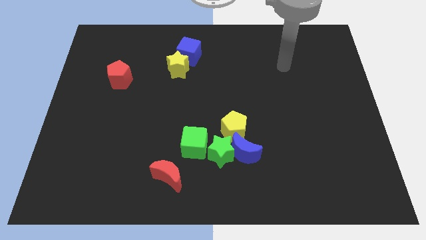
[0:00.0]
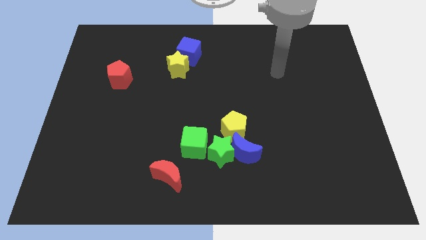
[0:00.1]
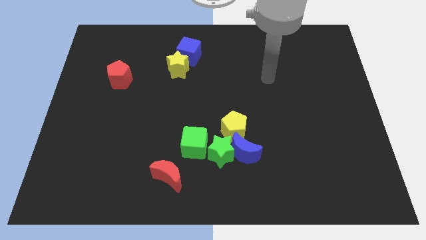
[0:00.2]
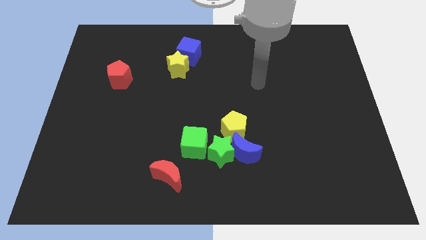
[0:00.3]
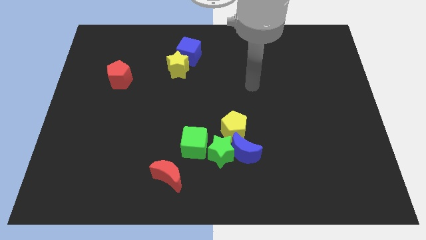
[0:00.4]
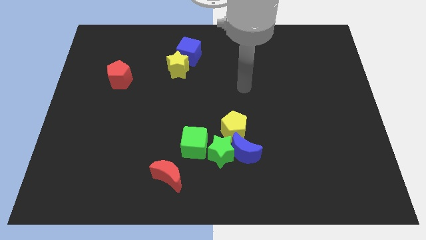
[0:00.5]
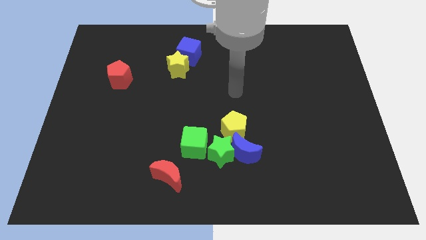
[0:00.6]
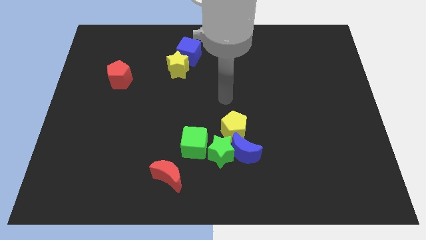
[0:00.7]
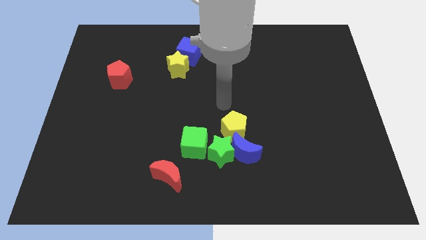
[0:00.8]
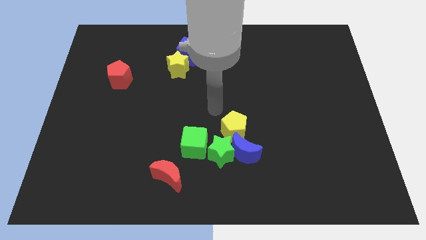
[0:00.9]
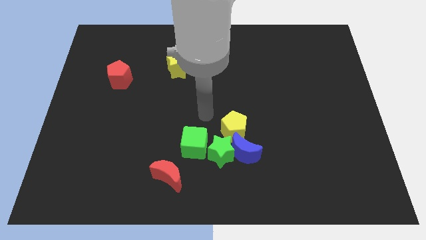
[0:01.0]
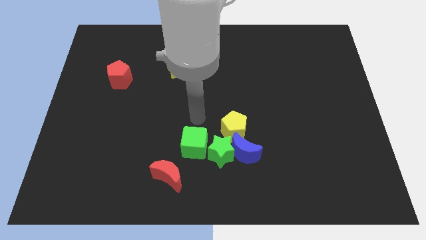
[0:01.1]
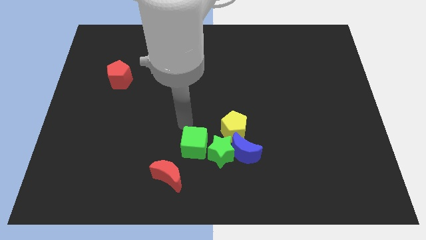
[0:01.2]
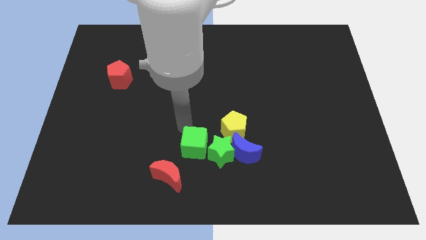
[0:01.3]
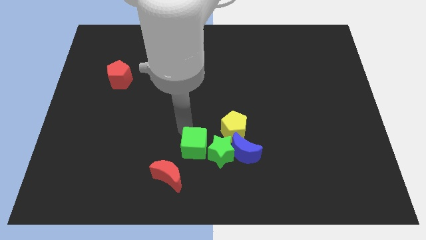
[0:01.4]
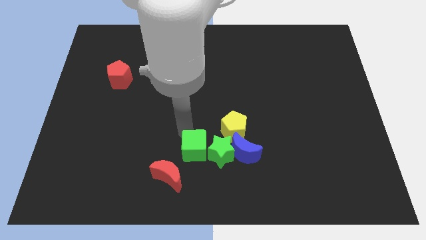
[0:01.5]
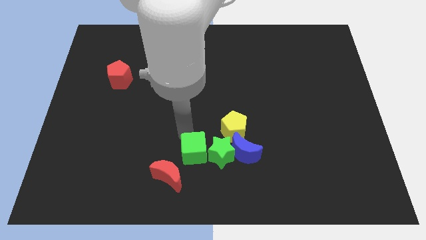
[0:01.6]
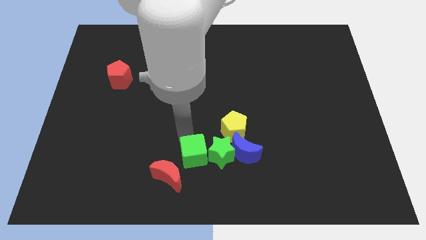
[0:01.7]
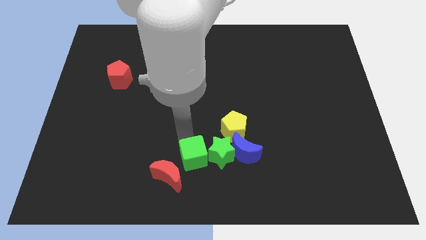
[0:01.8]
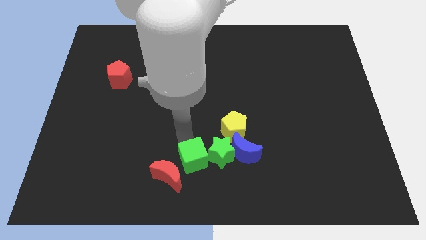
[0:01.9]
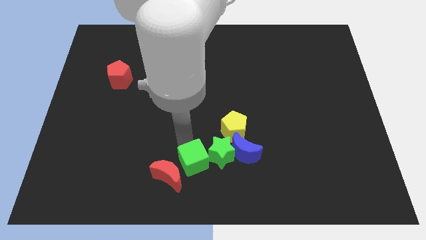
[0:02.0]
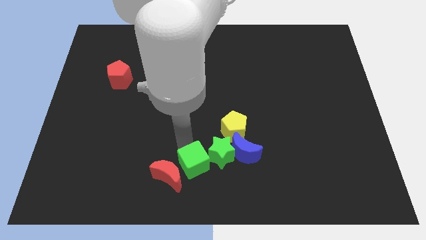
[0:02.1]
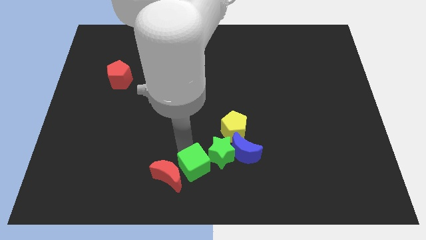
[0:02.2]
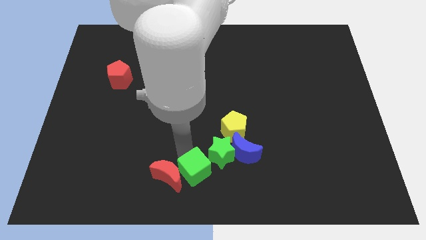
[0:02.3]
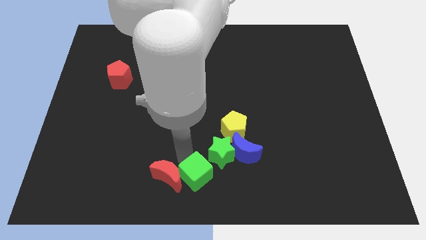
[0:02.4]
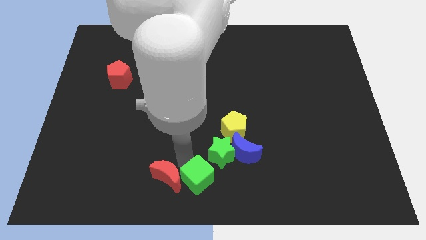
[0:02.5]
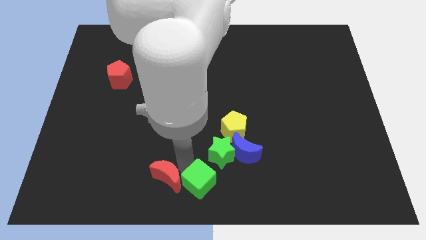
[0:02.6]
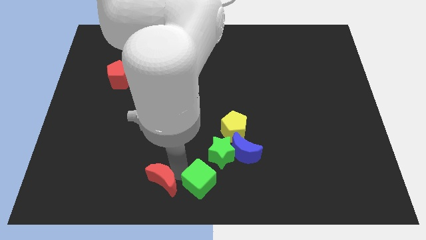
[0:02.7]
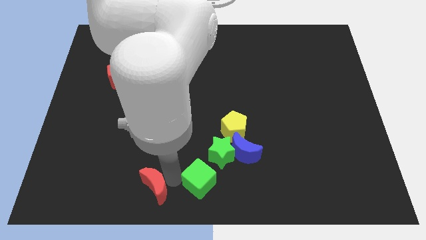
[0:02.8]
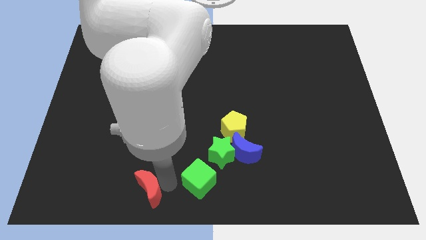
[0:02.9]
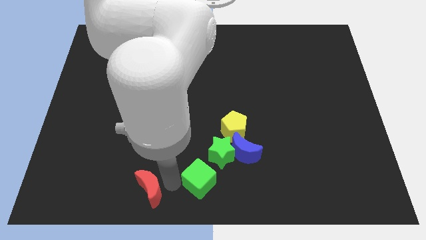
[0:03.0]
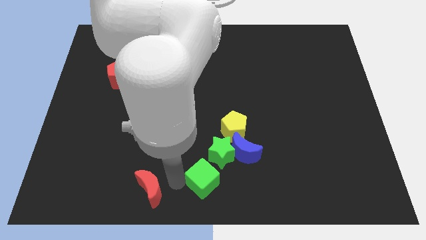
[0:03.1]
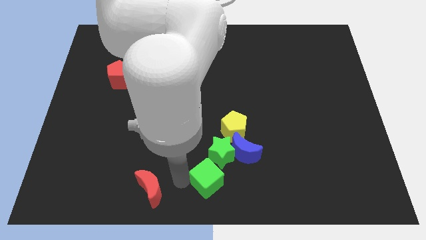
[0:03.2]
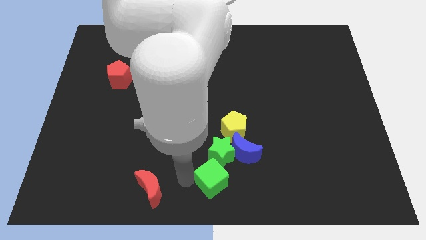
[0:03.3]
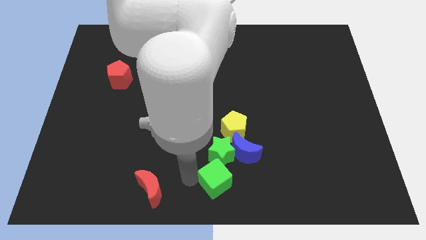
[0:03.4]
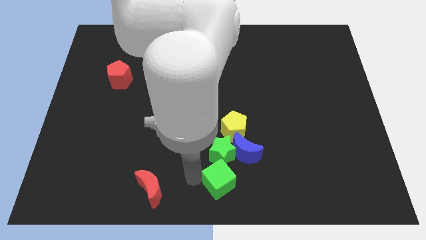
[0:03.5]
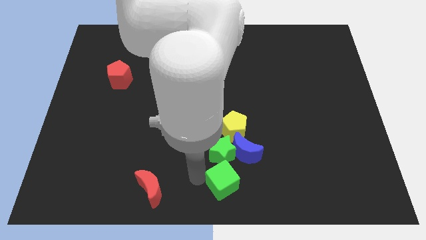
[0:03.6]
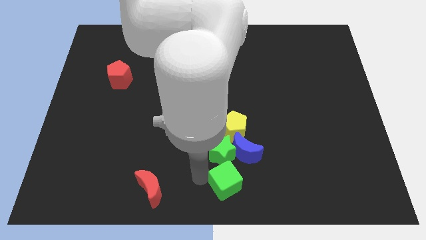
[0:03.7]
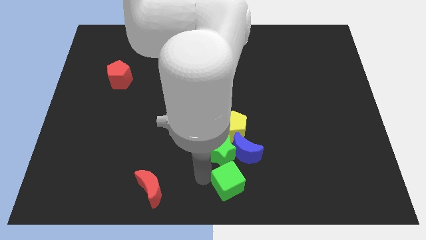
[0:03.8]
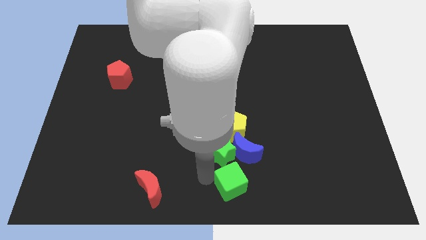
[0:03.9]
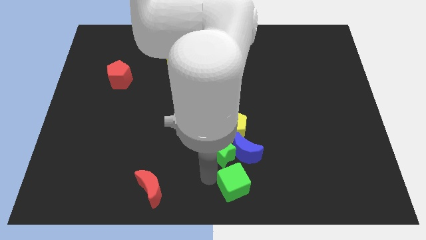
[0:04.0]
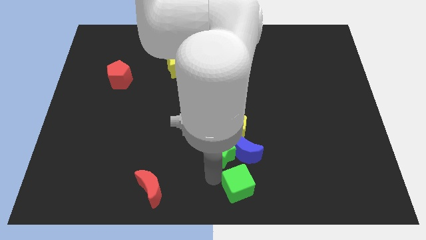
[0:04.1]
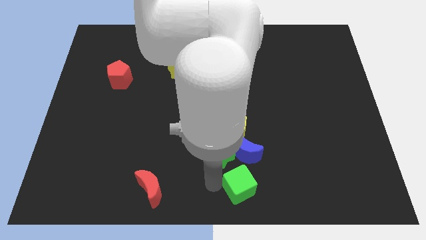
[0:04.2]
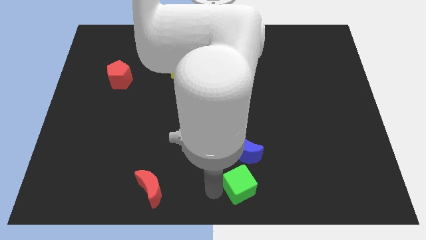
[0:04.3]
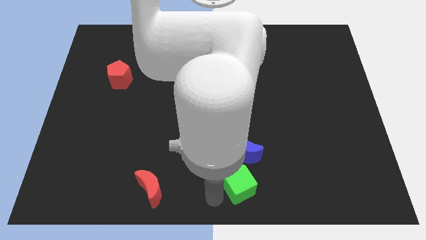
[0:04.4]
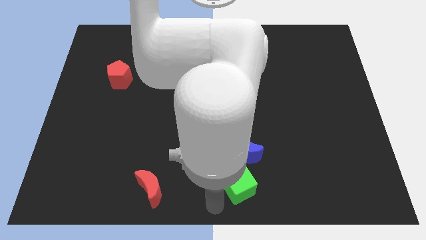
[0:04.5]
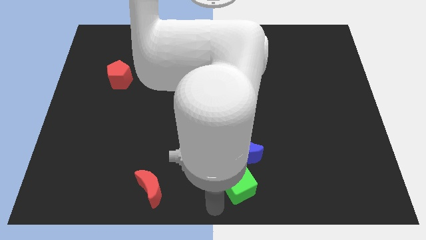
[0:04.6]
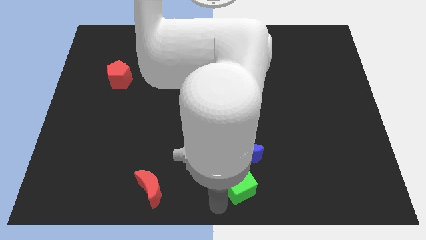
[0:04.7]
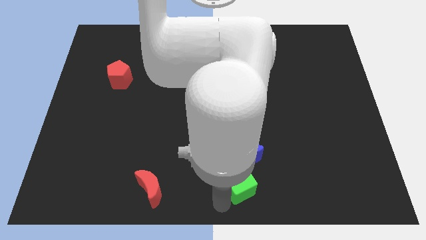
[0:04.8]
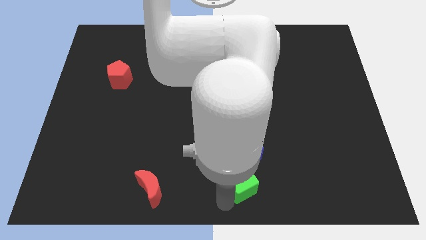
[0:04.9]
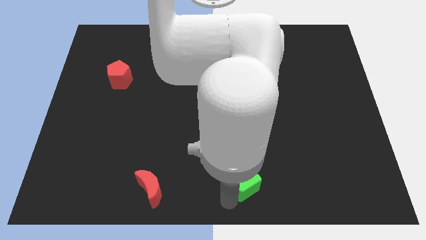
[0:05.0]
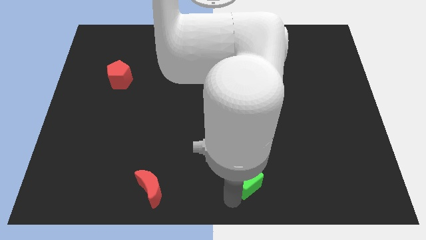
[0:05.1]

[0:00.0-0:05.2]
slightly push the green cube right

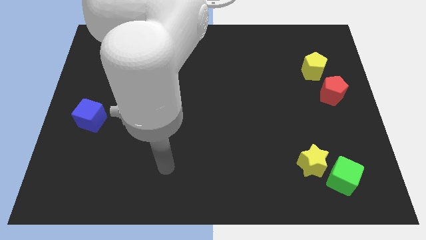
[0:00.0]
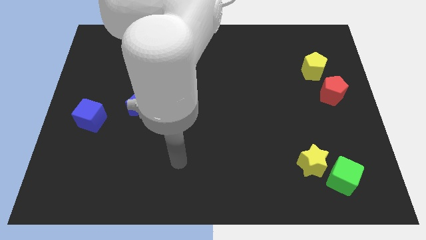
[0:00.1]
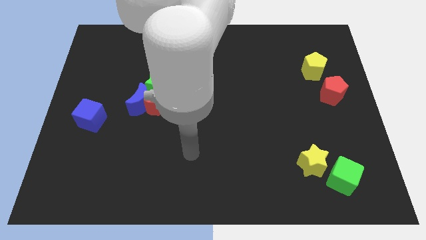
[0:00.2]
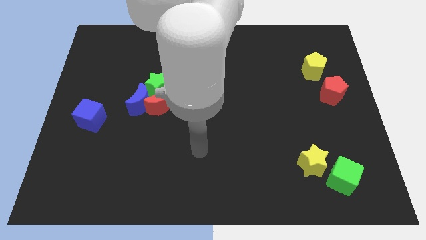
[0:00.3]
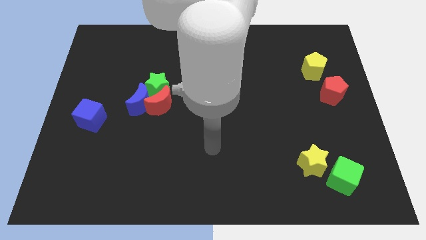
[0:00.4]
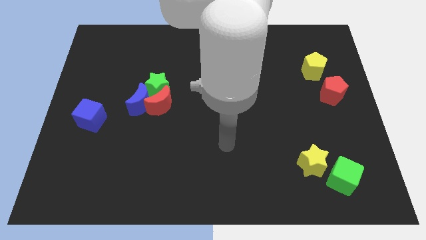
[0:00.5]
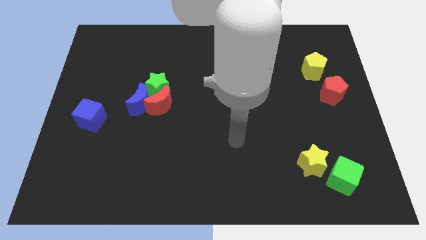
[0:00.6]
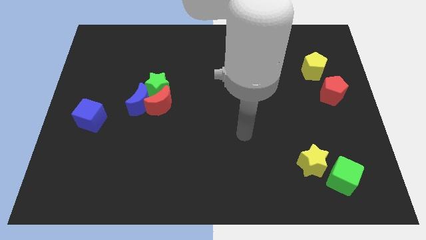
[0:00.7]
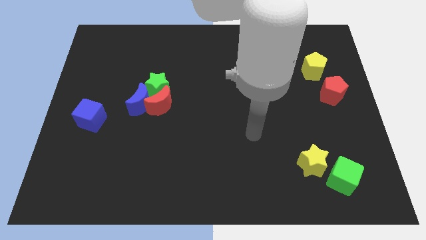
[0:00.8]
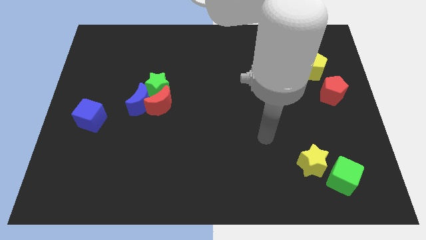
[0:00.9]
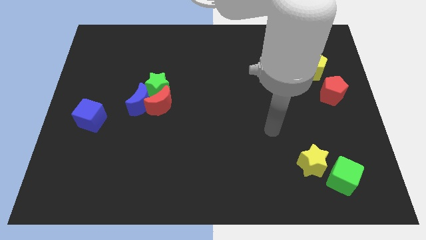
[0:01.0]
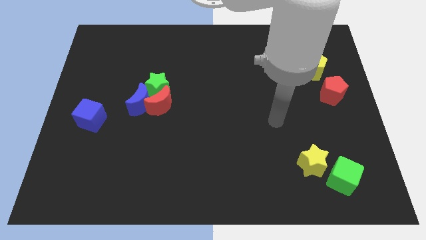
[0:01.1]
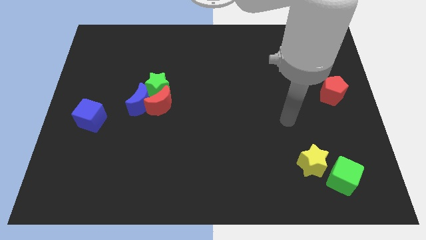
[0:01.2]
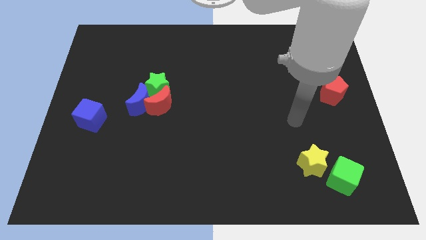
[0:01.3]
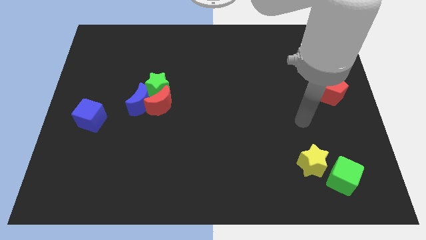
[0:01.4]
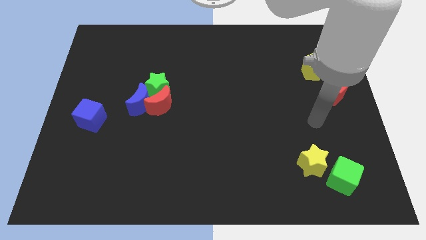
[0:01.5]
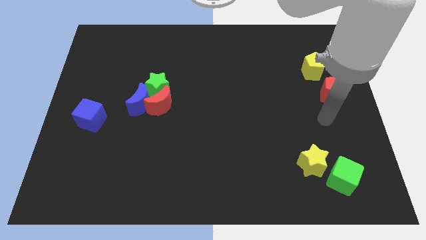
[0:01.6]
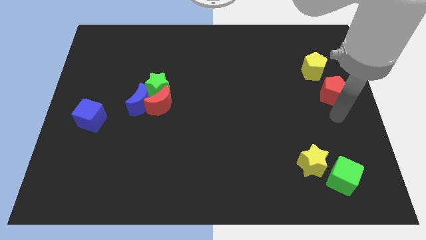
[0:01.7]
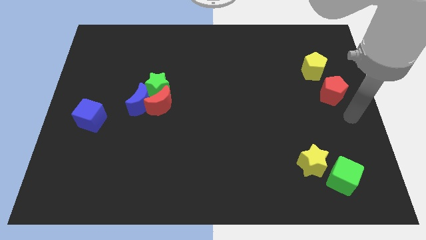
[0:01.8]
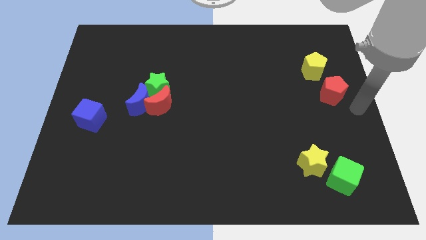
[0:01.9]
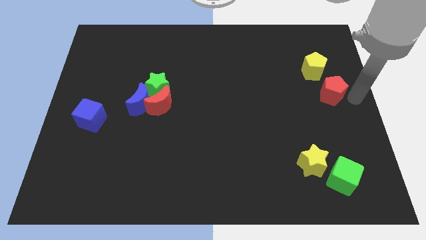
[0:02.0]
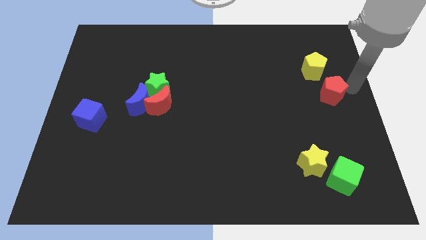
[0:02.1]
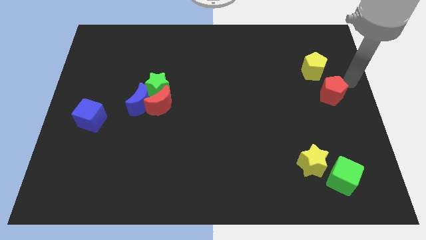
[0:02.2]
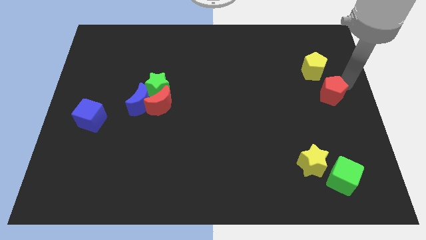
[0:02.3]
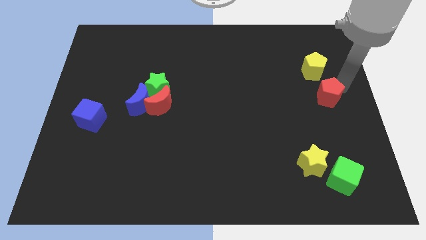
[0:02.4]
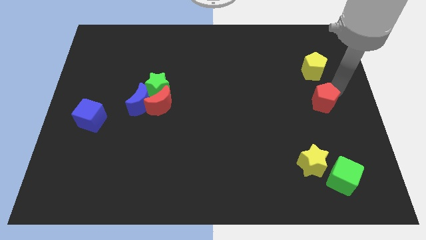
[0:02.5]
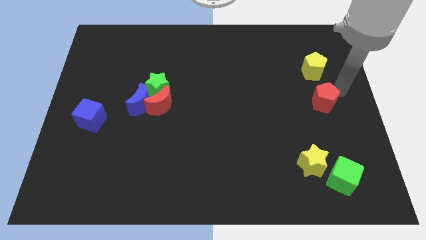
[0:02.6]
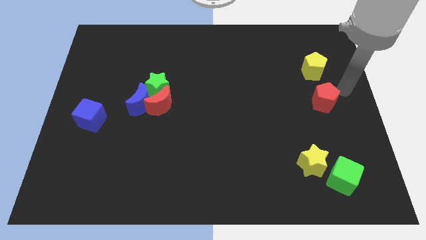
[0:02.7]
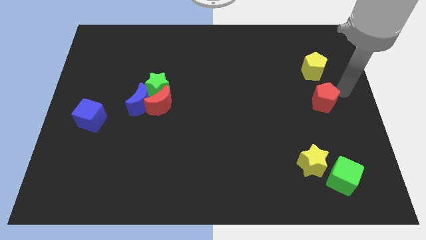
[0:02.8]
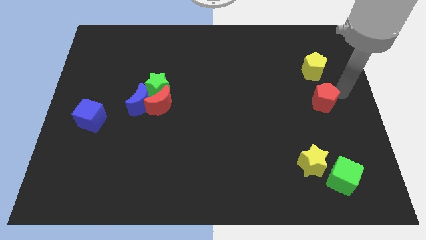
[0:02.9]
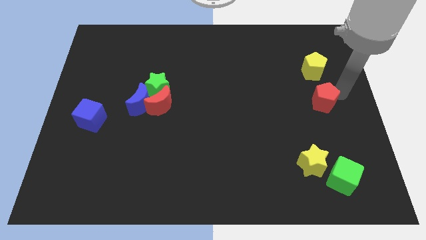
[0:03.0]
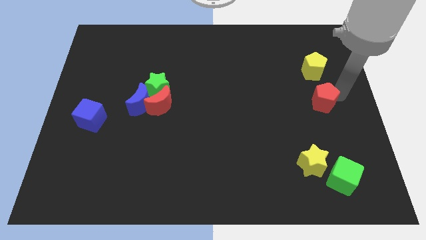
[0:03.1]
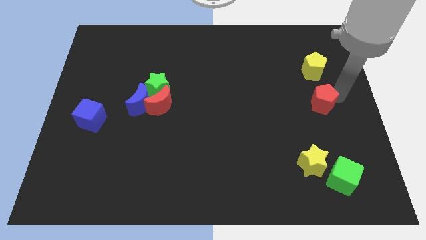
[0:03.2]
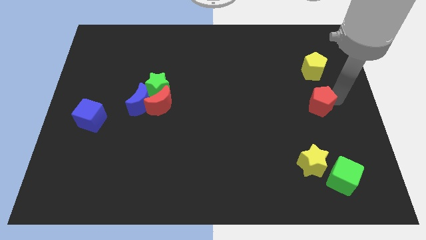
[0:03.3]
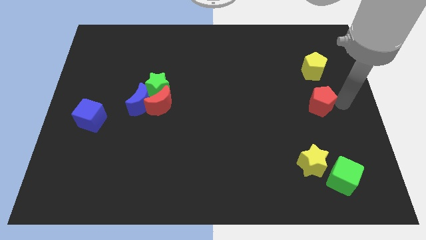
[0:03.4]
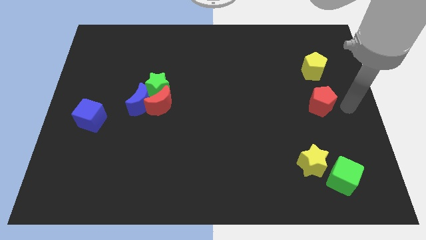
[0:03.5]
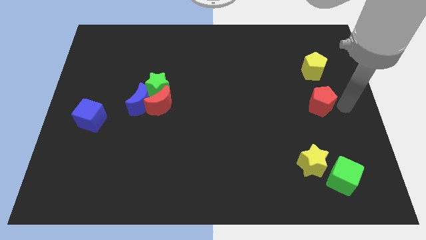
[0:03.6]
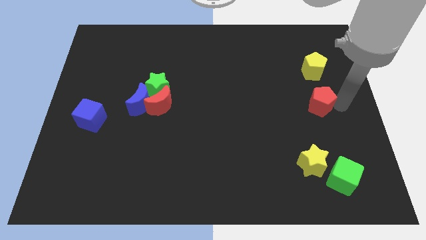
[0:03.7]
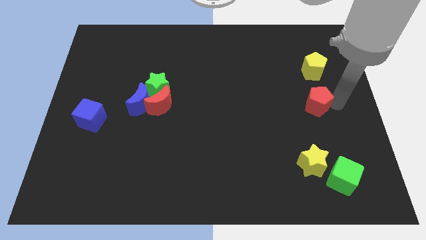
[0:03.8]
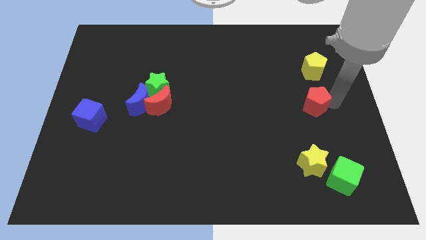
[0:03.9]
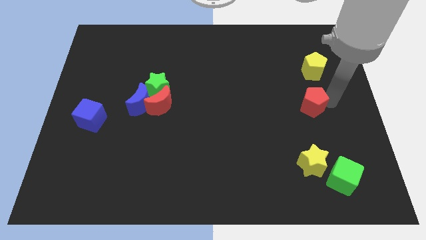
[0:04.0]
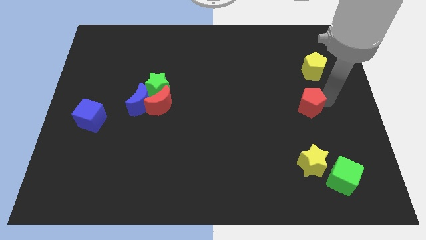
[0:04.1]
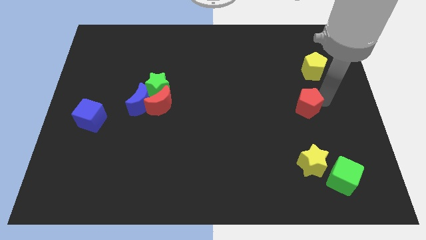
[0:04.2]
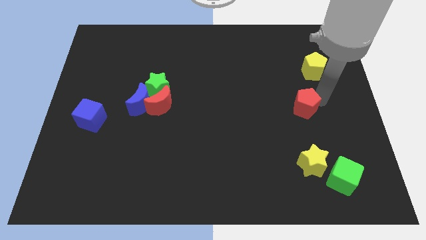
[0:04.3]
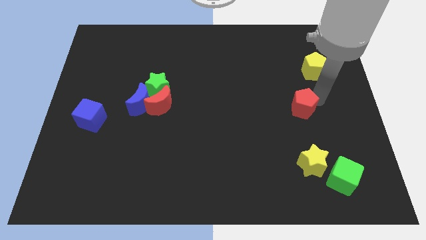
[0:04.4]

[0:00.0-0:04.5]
slightly slide the red pentagon left
